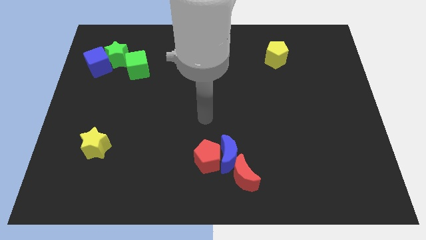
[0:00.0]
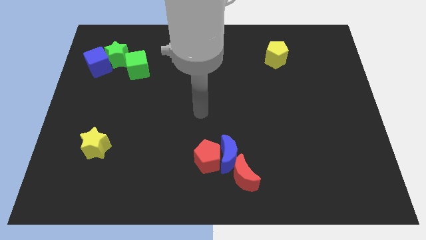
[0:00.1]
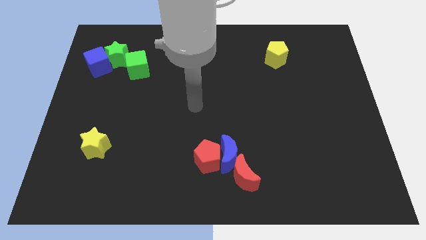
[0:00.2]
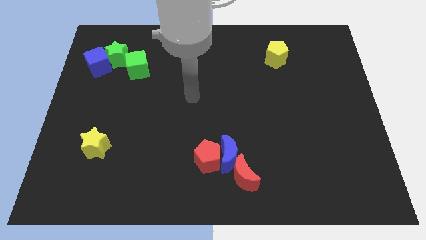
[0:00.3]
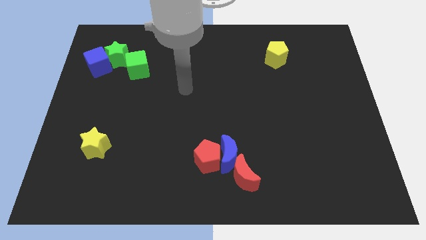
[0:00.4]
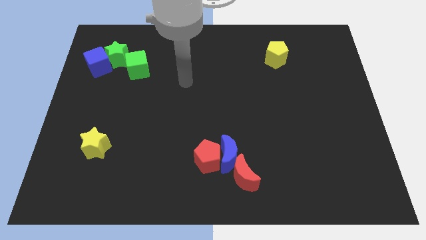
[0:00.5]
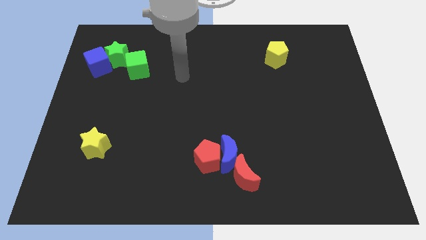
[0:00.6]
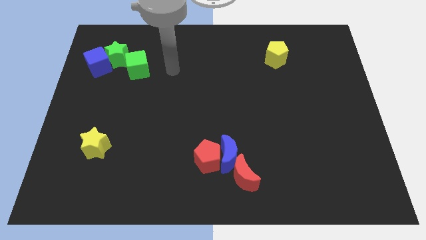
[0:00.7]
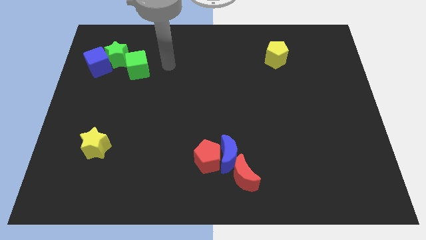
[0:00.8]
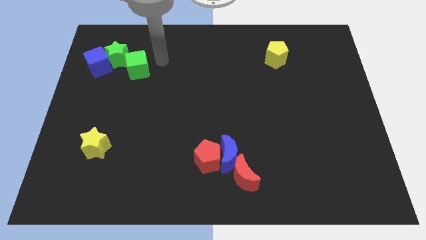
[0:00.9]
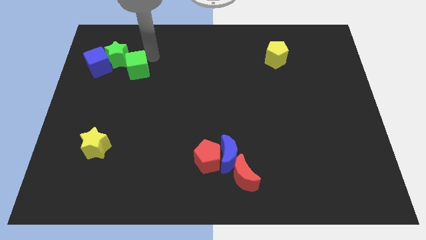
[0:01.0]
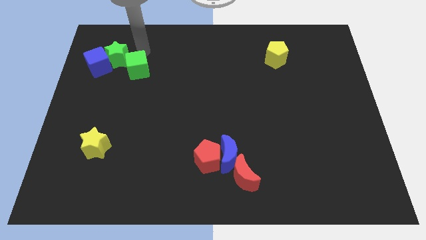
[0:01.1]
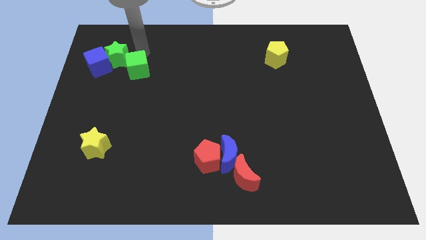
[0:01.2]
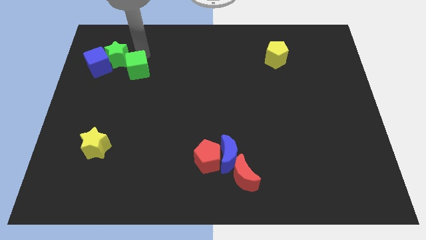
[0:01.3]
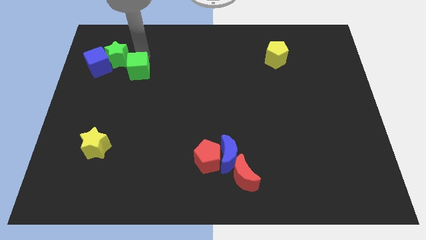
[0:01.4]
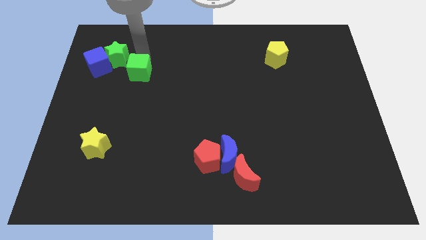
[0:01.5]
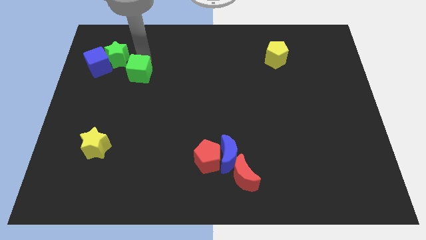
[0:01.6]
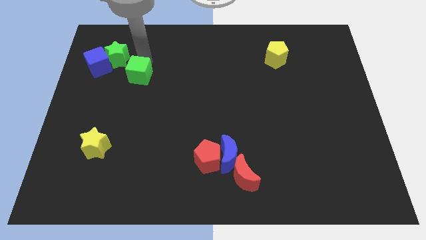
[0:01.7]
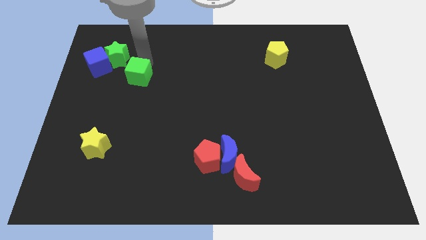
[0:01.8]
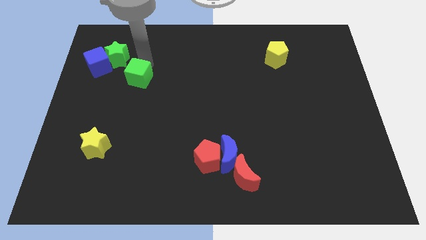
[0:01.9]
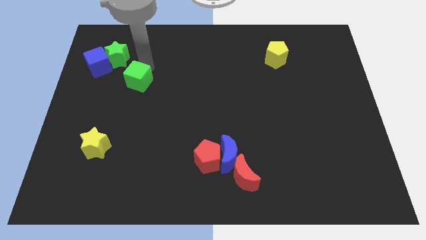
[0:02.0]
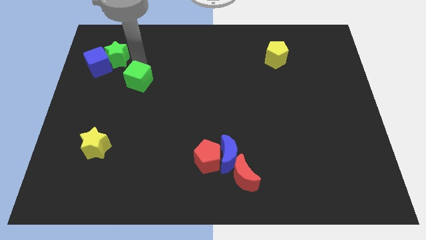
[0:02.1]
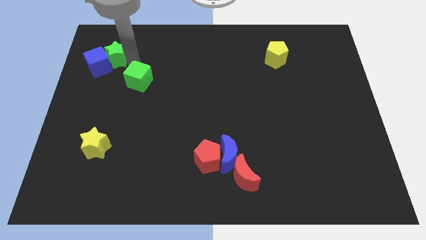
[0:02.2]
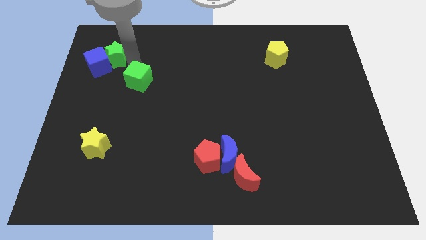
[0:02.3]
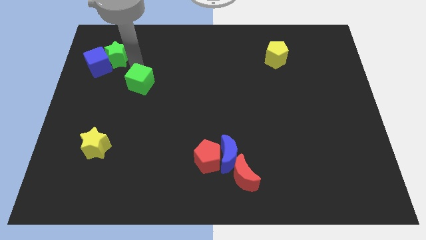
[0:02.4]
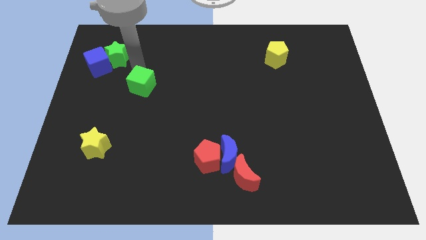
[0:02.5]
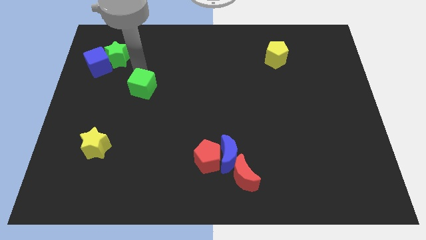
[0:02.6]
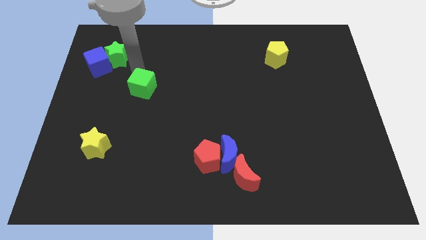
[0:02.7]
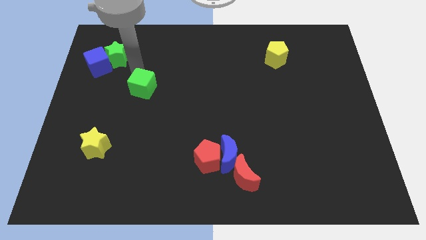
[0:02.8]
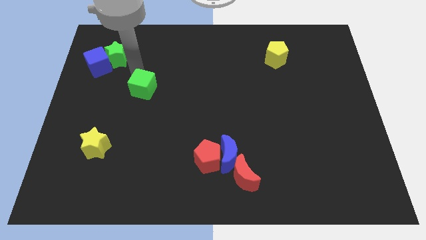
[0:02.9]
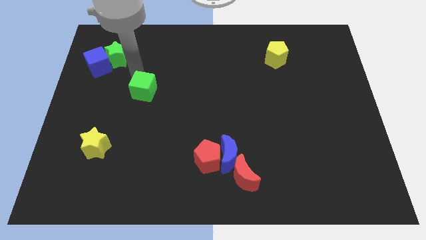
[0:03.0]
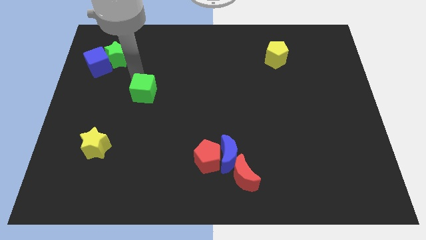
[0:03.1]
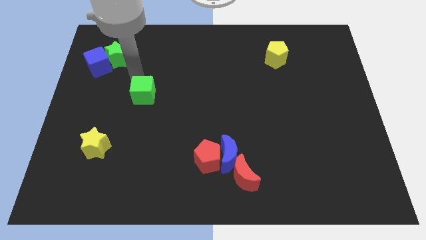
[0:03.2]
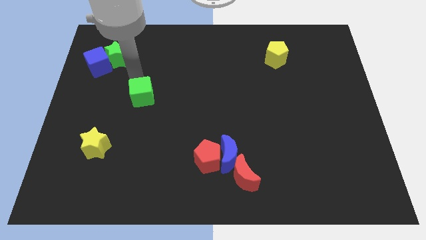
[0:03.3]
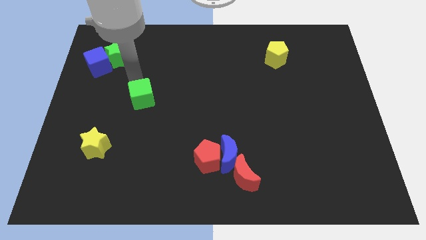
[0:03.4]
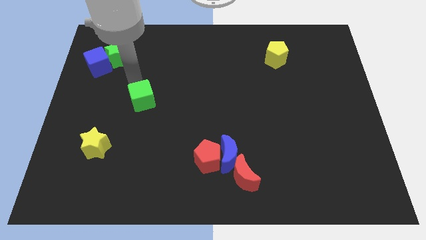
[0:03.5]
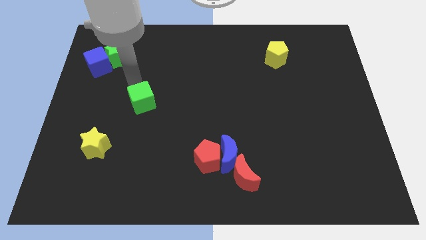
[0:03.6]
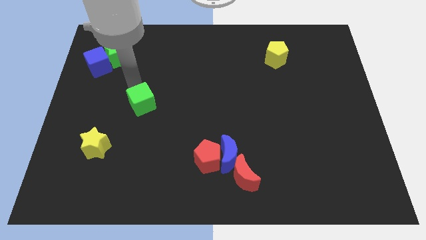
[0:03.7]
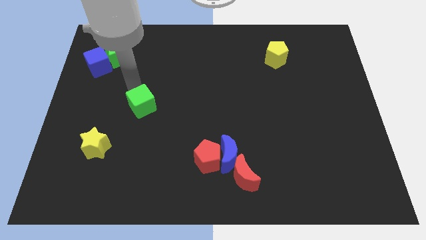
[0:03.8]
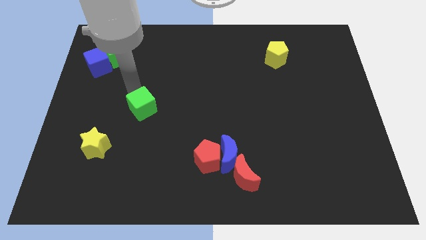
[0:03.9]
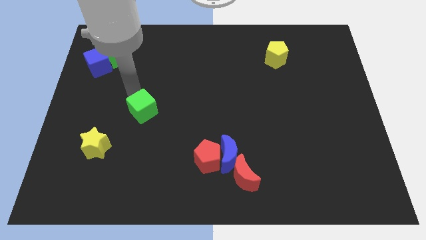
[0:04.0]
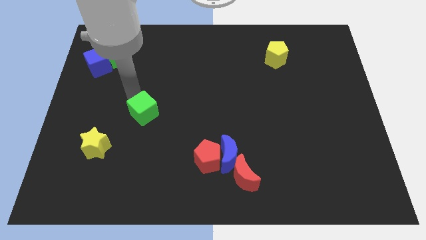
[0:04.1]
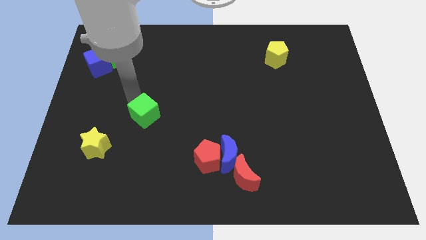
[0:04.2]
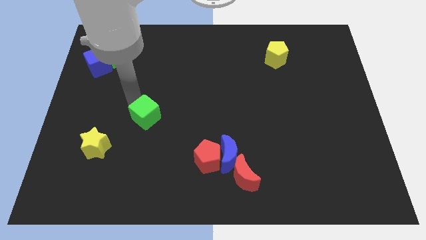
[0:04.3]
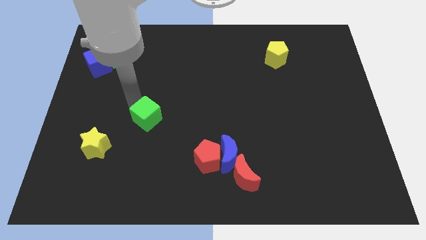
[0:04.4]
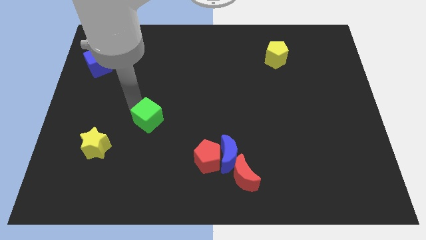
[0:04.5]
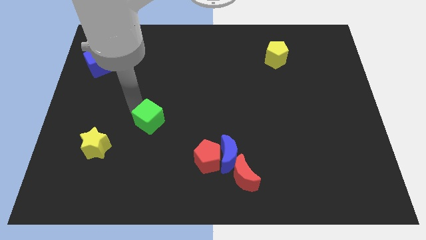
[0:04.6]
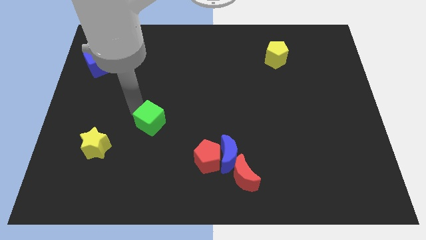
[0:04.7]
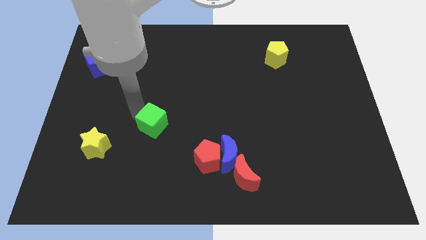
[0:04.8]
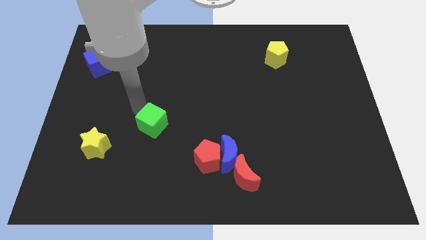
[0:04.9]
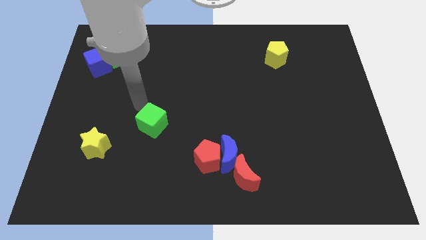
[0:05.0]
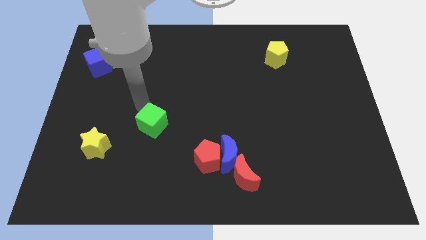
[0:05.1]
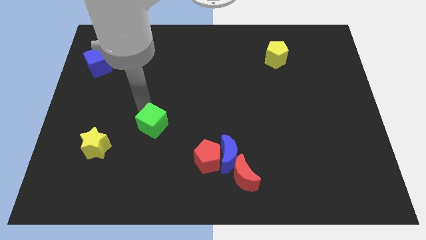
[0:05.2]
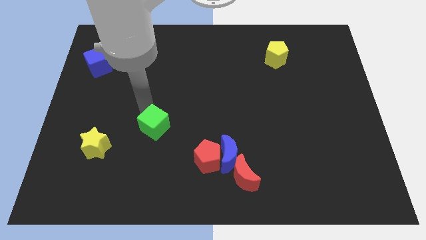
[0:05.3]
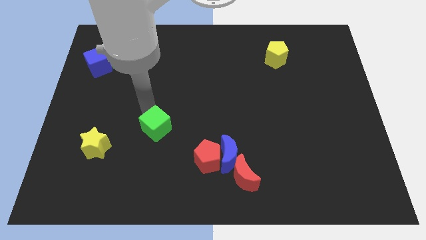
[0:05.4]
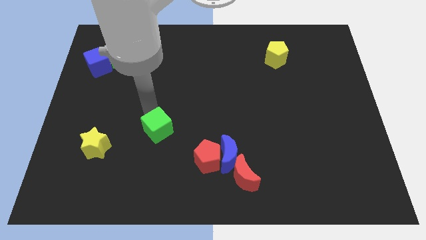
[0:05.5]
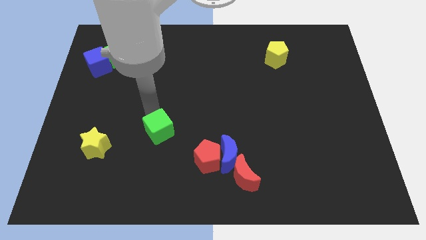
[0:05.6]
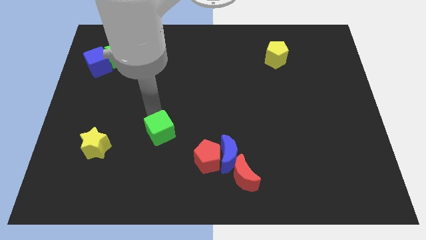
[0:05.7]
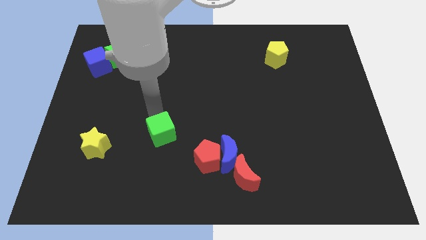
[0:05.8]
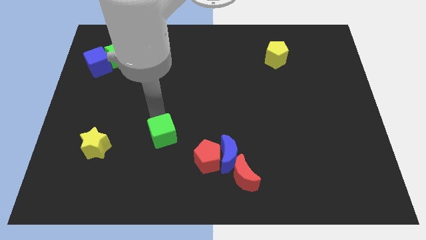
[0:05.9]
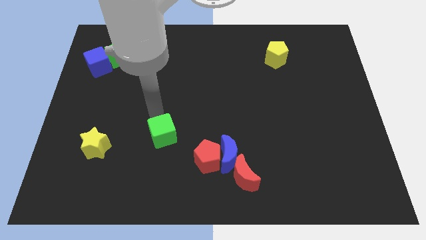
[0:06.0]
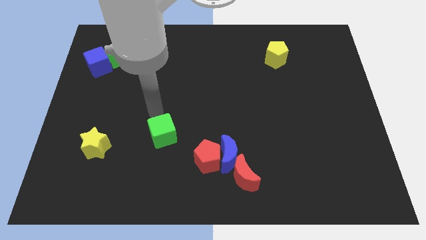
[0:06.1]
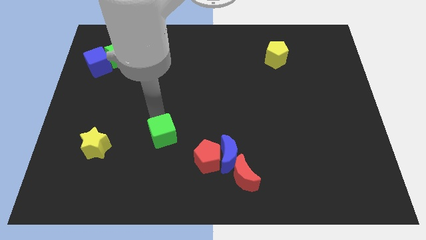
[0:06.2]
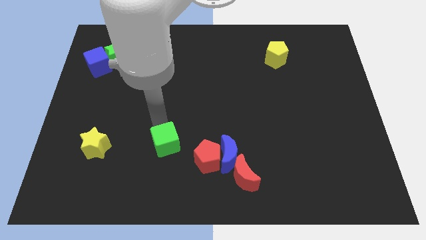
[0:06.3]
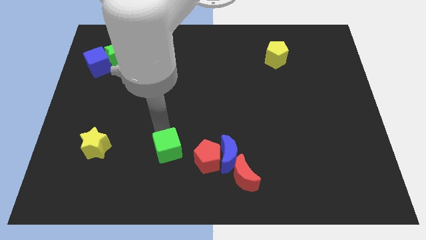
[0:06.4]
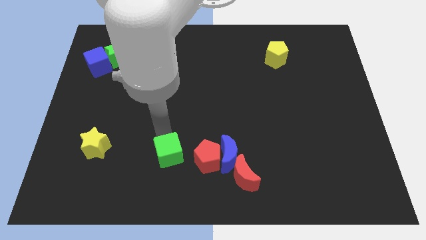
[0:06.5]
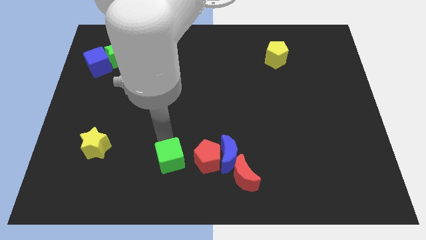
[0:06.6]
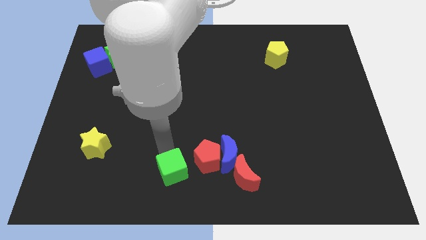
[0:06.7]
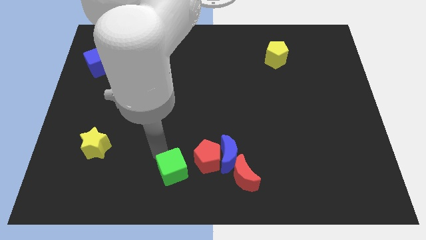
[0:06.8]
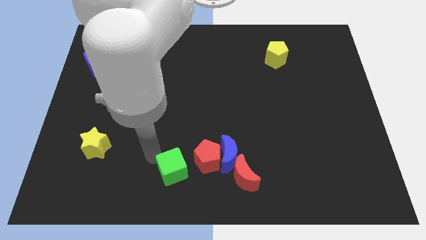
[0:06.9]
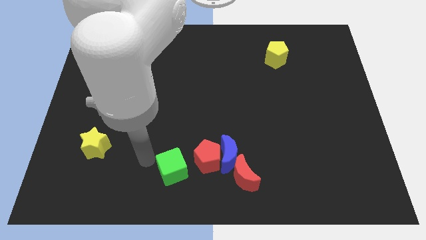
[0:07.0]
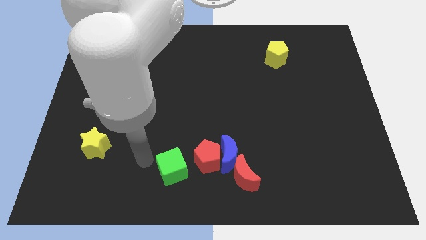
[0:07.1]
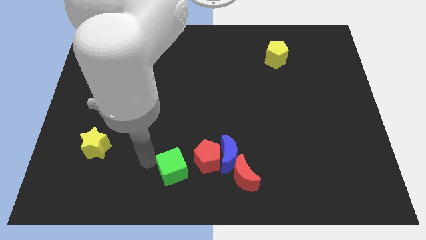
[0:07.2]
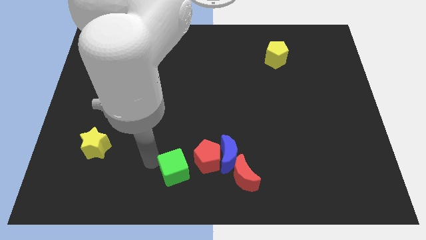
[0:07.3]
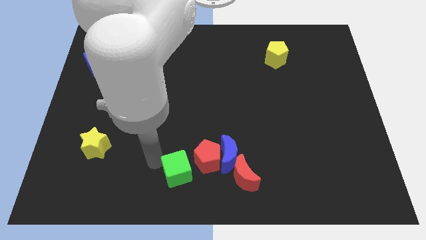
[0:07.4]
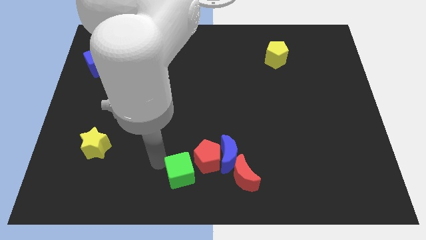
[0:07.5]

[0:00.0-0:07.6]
put the green cube to the bottom left of the blue moon

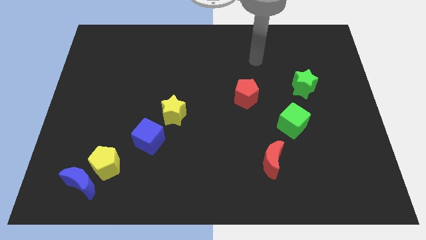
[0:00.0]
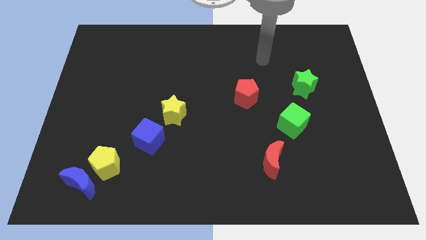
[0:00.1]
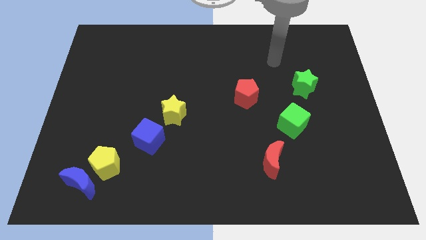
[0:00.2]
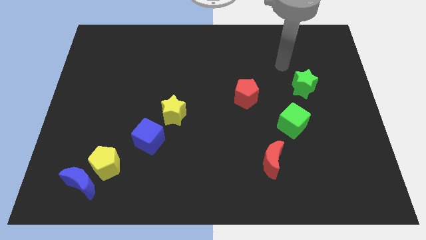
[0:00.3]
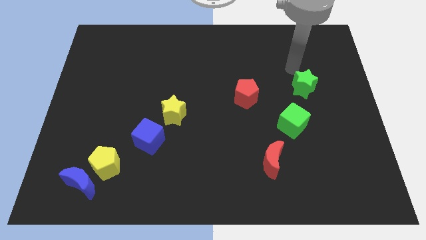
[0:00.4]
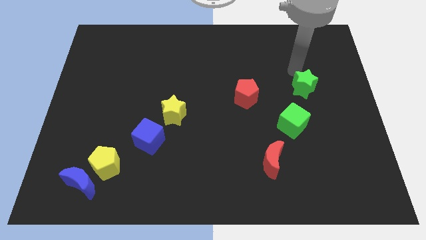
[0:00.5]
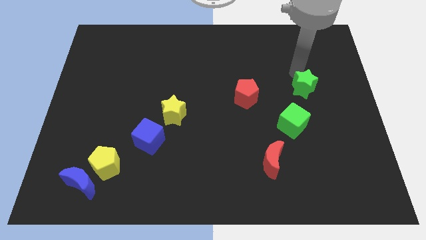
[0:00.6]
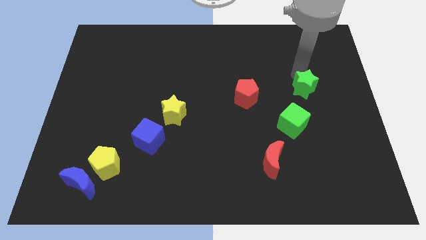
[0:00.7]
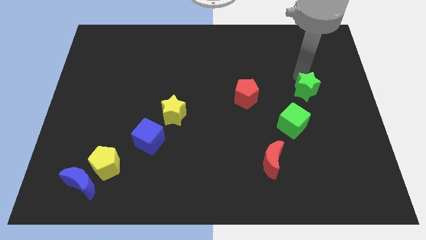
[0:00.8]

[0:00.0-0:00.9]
slide the green star to the top right side of the green cube
